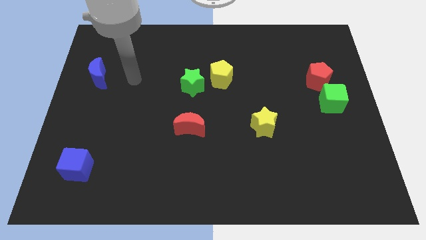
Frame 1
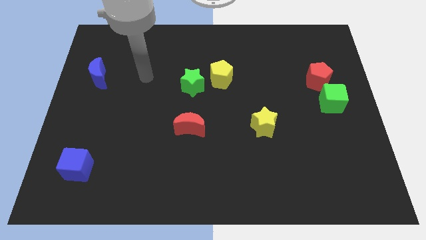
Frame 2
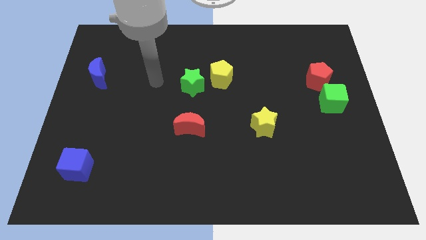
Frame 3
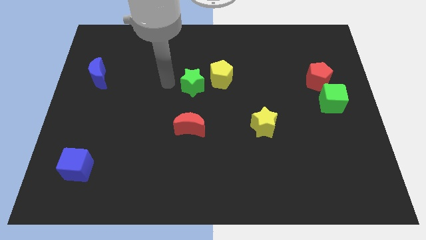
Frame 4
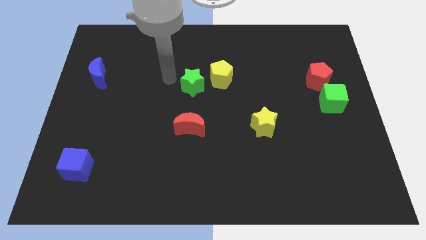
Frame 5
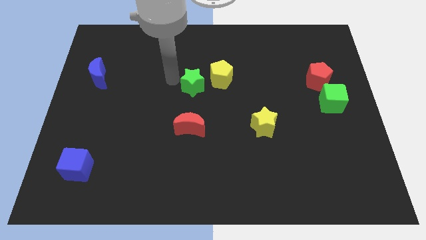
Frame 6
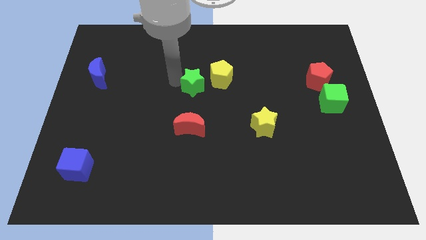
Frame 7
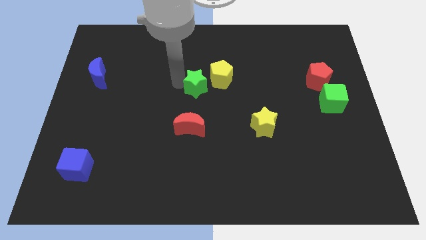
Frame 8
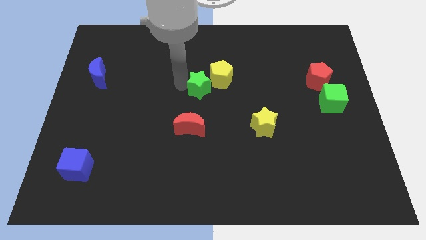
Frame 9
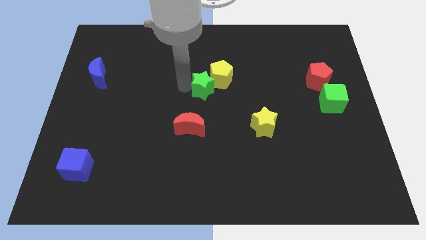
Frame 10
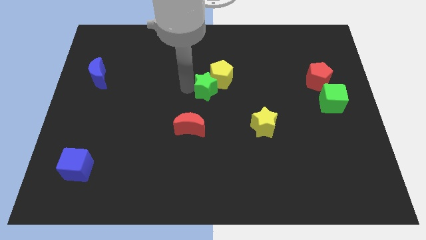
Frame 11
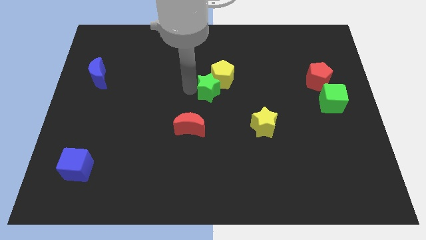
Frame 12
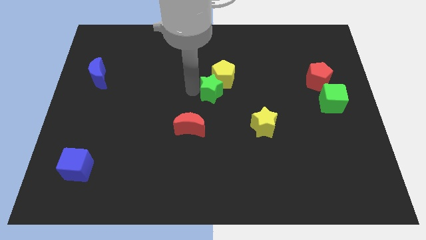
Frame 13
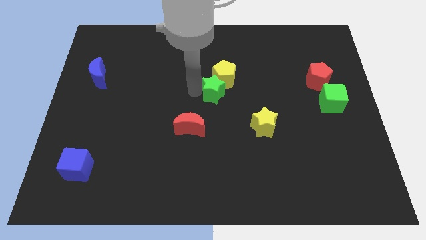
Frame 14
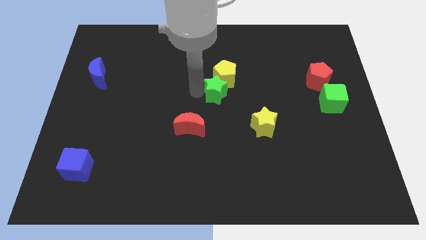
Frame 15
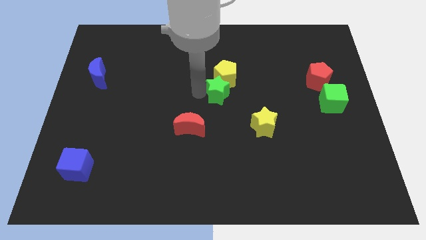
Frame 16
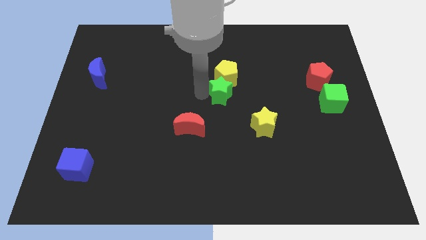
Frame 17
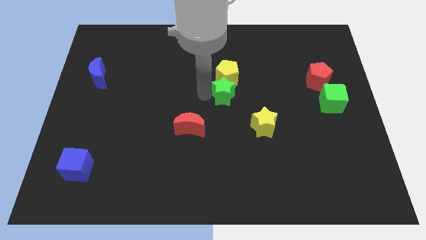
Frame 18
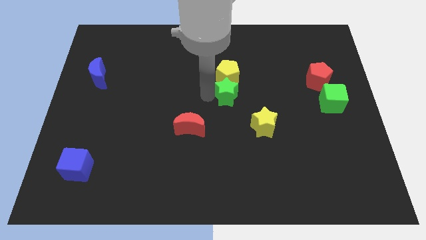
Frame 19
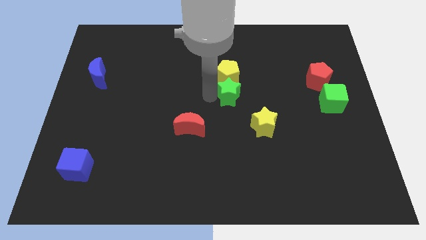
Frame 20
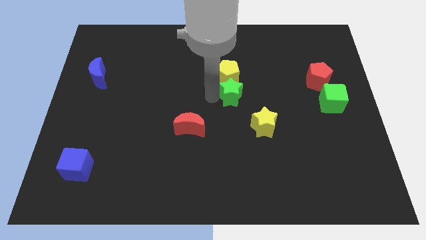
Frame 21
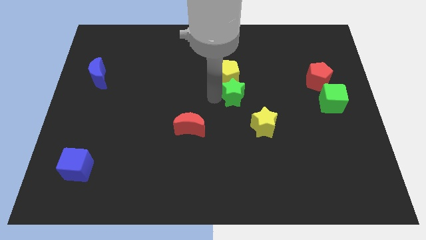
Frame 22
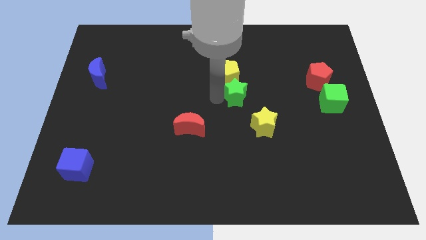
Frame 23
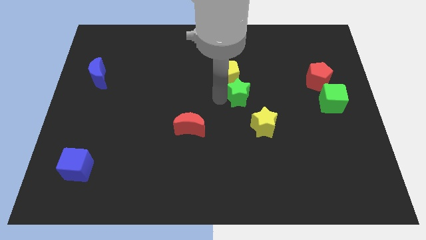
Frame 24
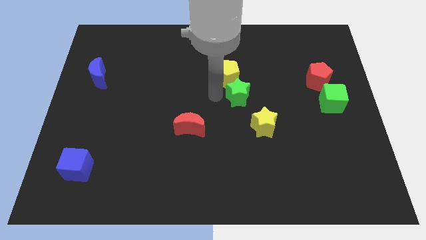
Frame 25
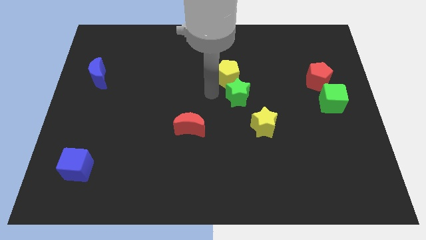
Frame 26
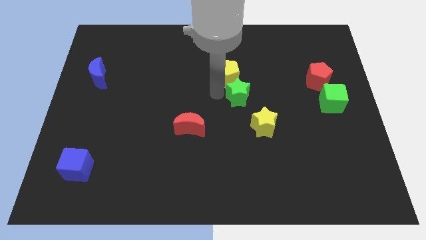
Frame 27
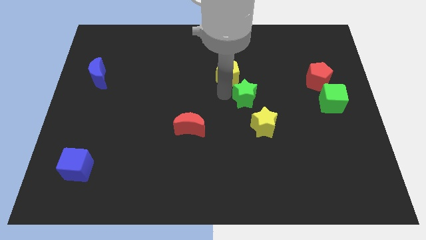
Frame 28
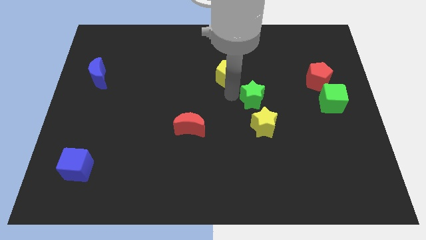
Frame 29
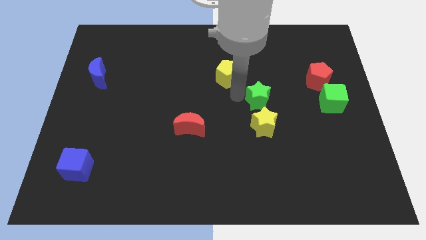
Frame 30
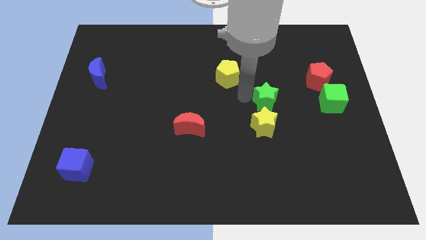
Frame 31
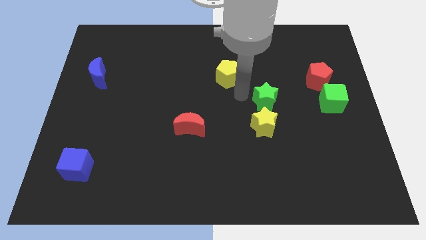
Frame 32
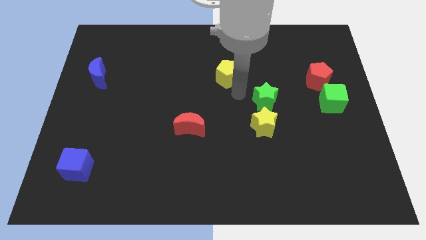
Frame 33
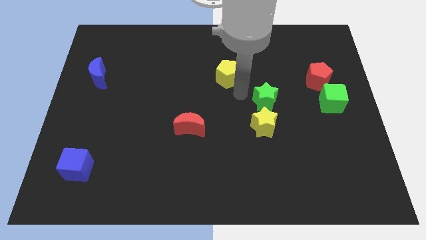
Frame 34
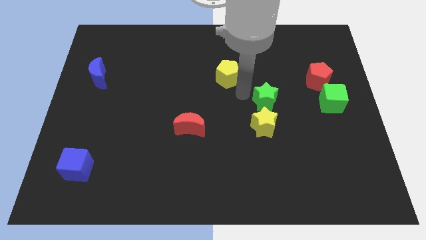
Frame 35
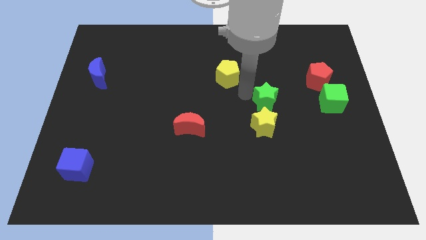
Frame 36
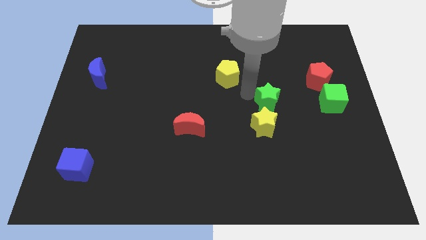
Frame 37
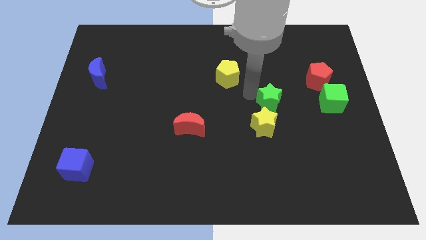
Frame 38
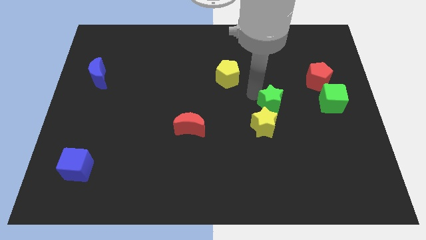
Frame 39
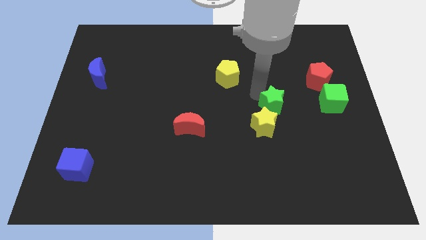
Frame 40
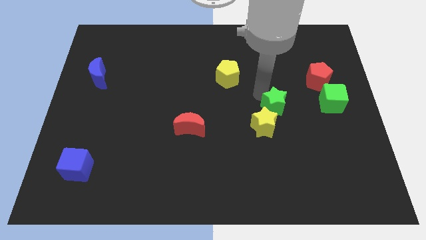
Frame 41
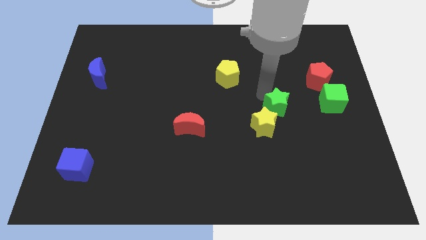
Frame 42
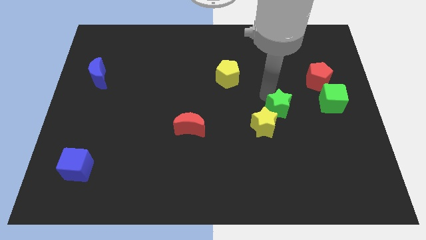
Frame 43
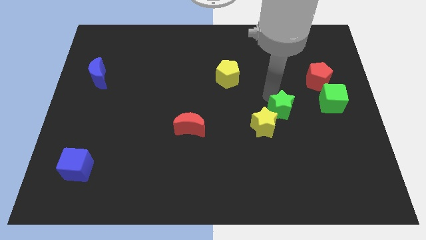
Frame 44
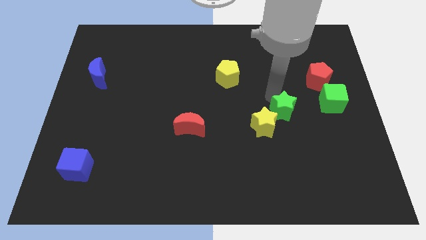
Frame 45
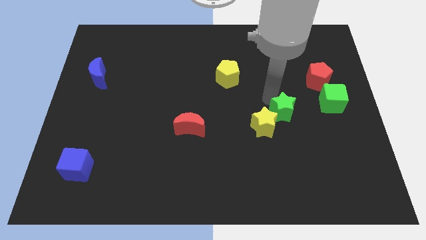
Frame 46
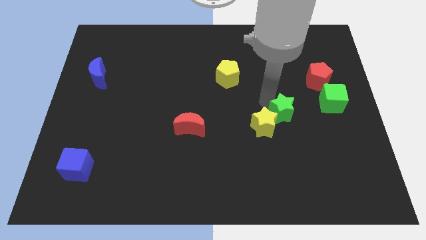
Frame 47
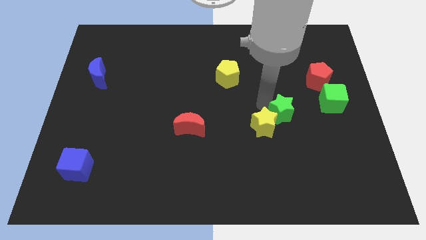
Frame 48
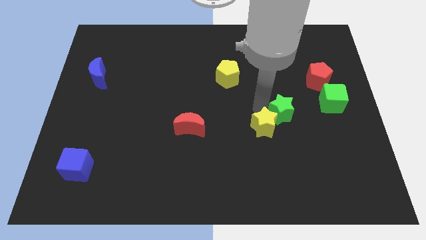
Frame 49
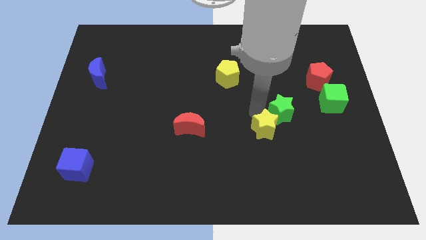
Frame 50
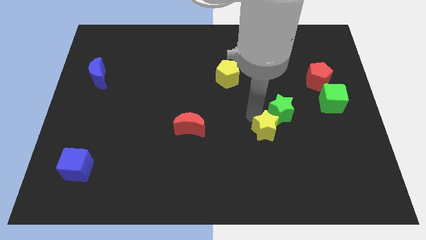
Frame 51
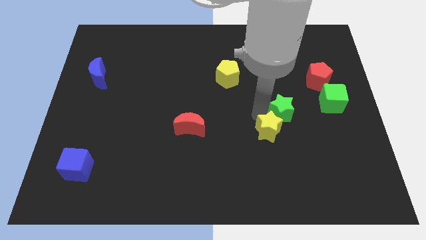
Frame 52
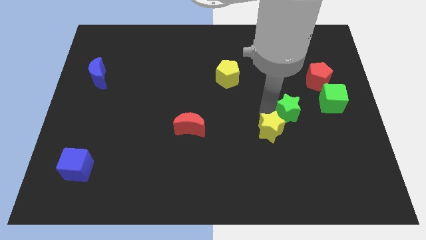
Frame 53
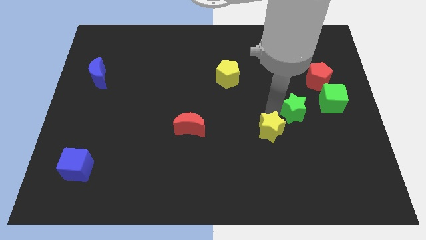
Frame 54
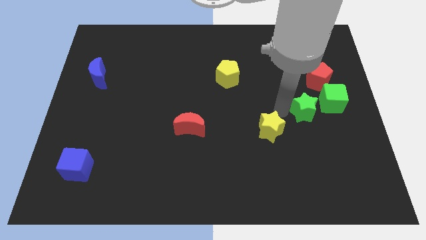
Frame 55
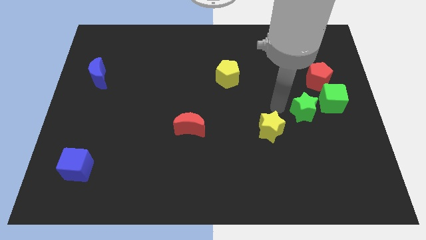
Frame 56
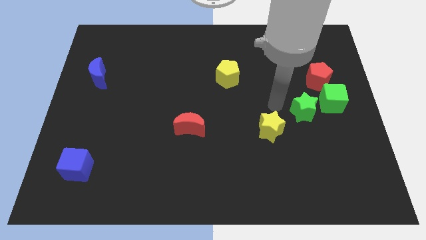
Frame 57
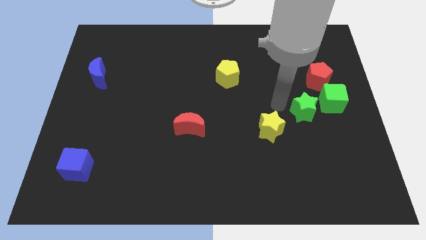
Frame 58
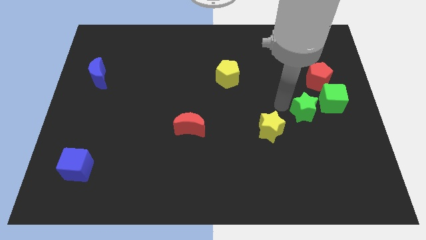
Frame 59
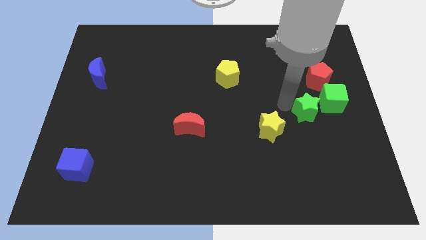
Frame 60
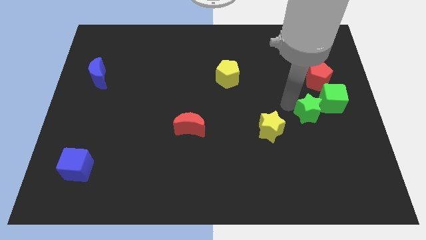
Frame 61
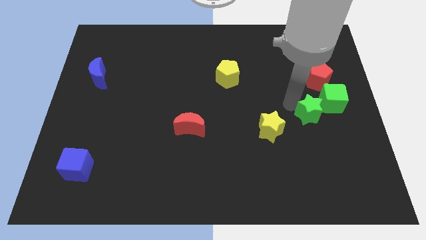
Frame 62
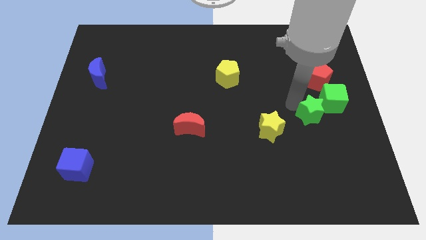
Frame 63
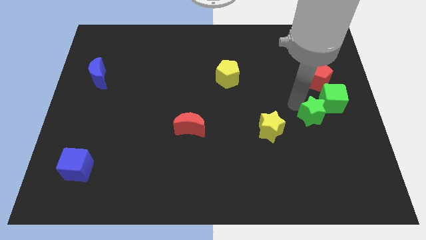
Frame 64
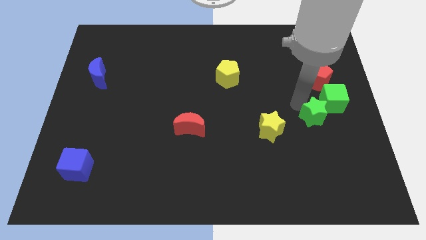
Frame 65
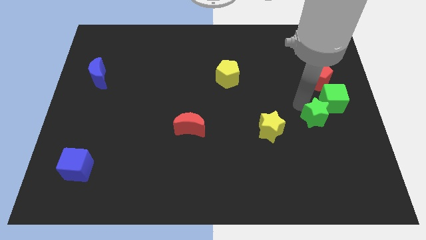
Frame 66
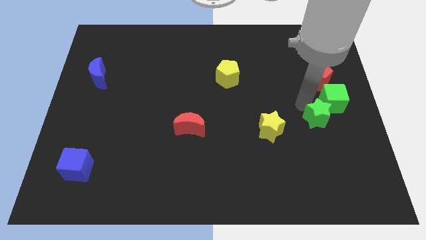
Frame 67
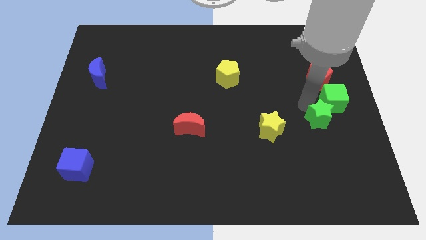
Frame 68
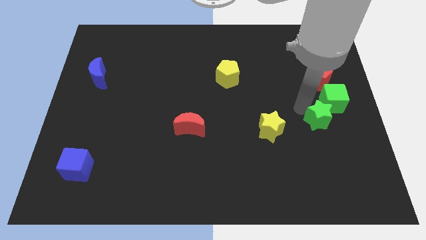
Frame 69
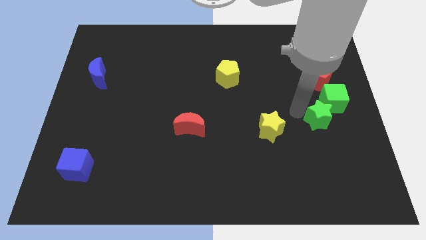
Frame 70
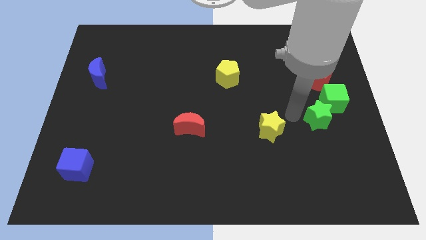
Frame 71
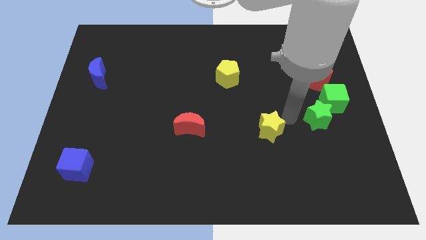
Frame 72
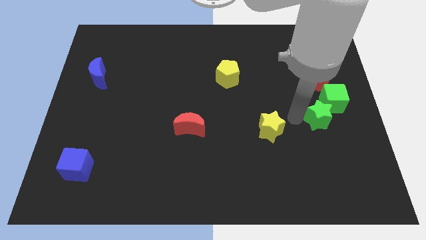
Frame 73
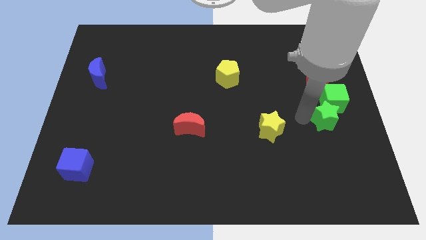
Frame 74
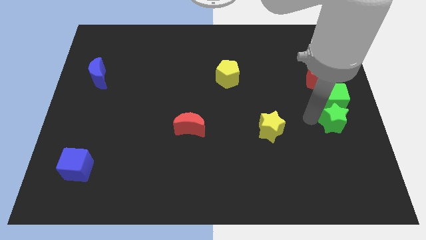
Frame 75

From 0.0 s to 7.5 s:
push the green star to the right side of the board
